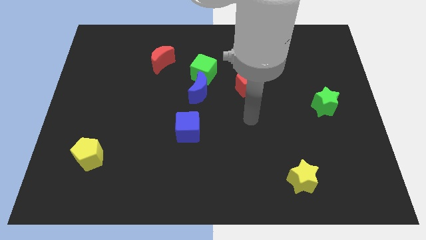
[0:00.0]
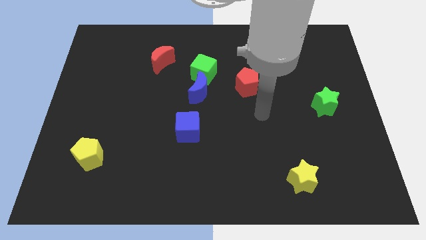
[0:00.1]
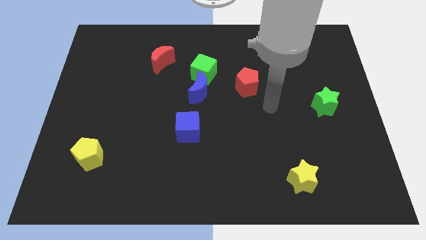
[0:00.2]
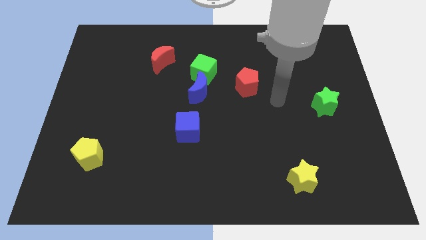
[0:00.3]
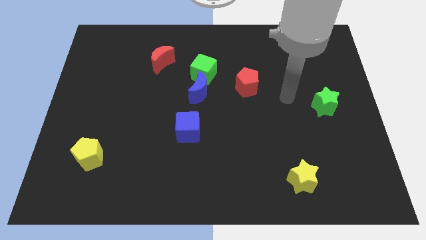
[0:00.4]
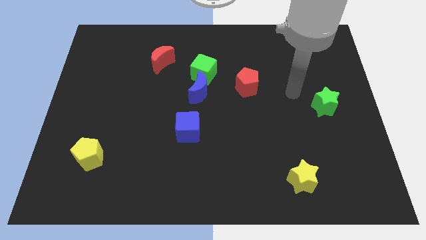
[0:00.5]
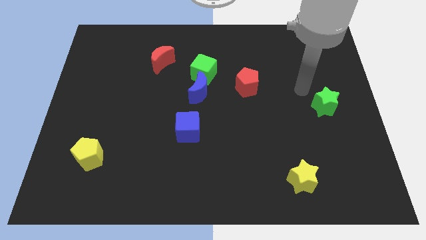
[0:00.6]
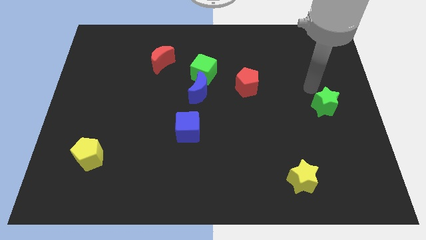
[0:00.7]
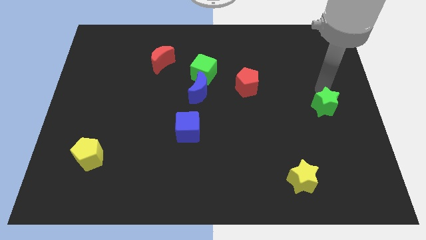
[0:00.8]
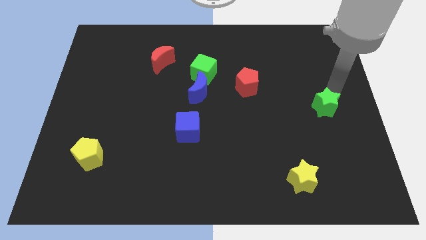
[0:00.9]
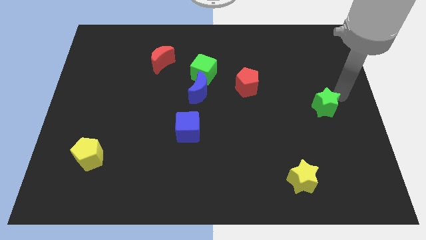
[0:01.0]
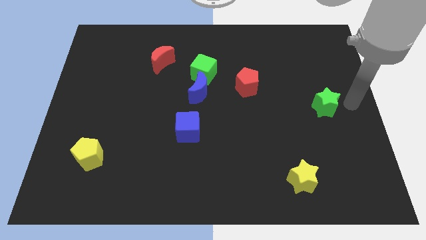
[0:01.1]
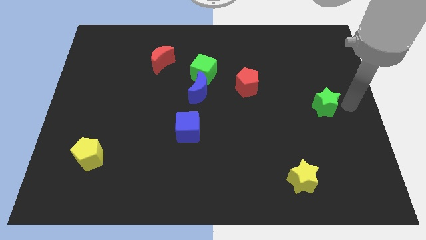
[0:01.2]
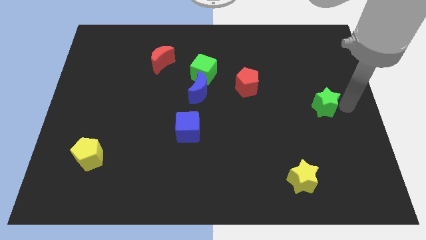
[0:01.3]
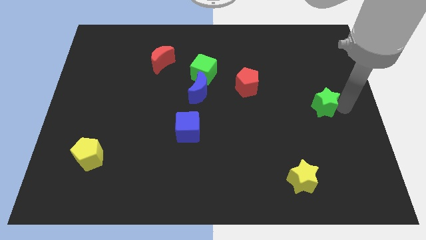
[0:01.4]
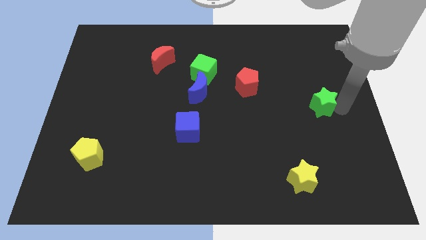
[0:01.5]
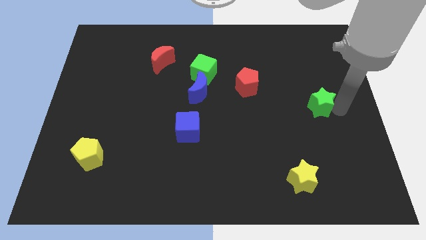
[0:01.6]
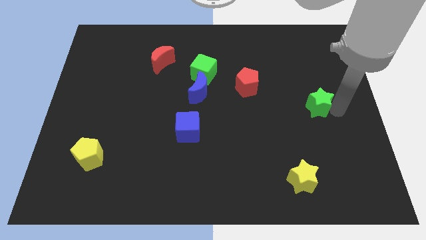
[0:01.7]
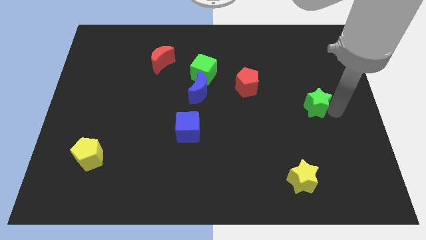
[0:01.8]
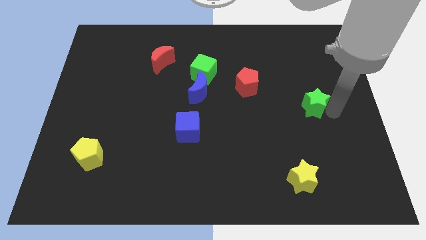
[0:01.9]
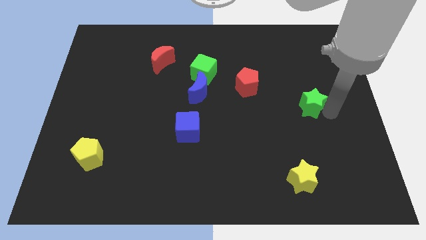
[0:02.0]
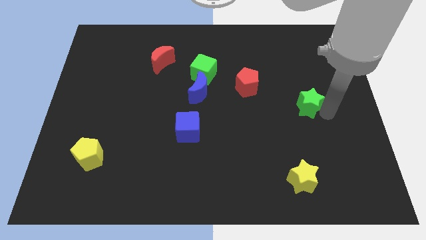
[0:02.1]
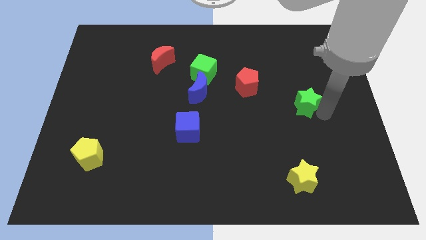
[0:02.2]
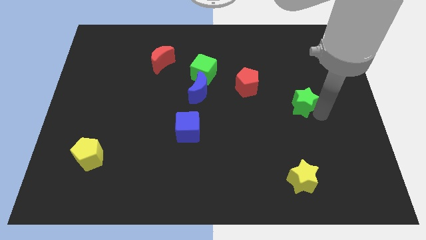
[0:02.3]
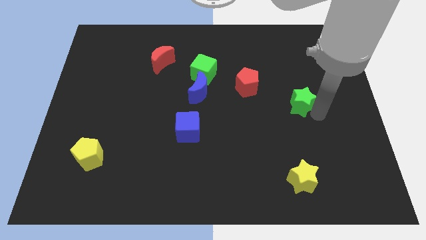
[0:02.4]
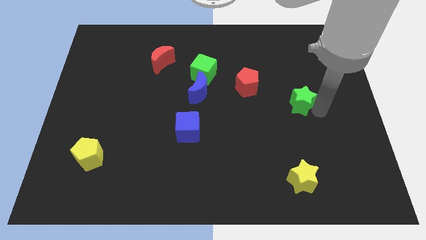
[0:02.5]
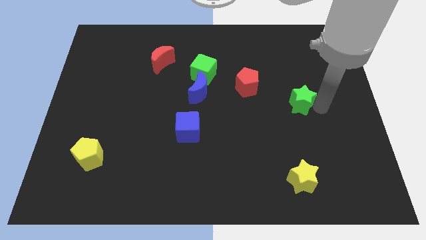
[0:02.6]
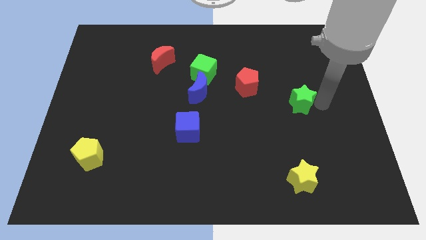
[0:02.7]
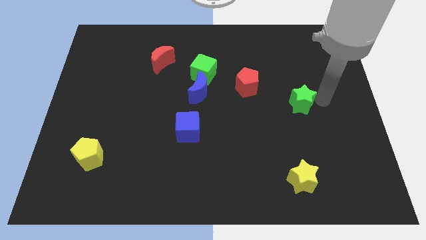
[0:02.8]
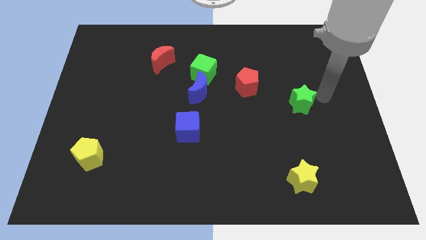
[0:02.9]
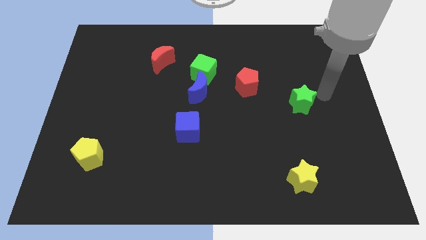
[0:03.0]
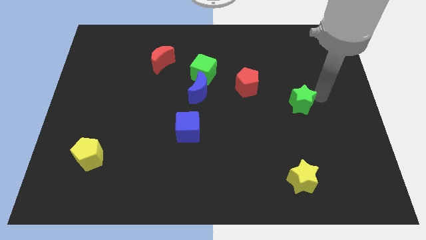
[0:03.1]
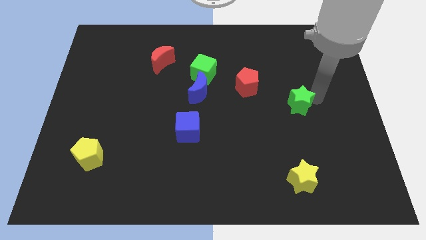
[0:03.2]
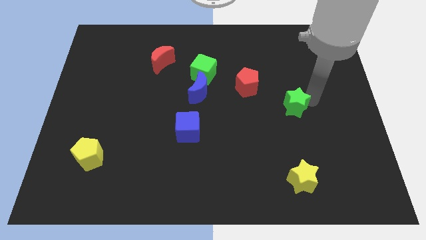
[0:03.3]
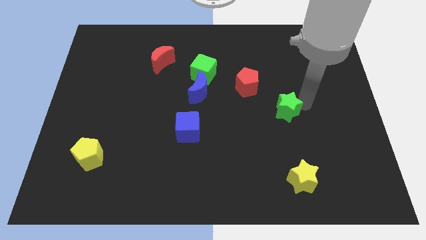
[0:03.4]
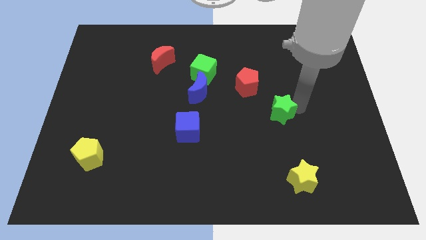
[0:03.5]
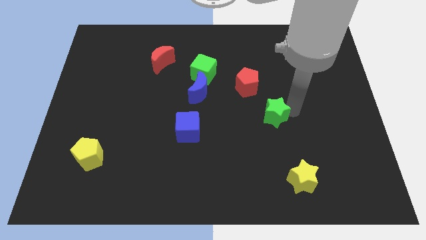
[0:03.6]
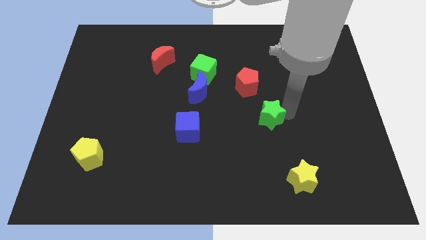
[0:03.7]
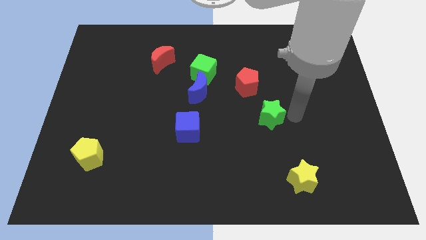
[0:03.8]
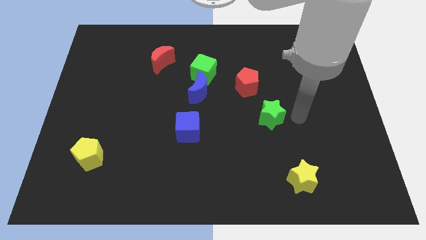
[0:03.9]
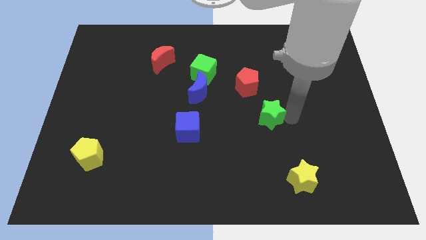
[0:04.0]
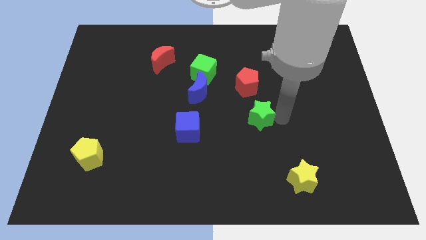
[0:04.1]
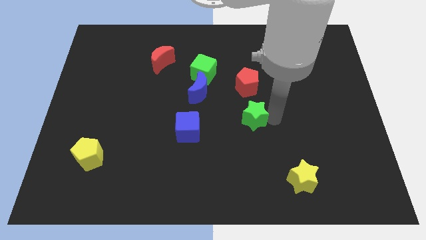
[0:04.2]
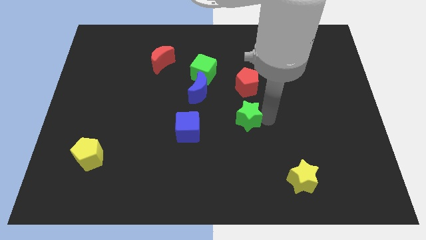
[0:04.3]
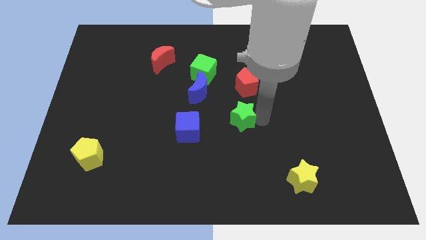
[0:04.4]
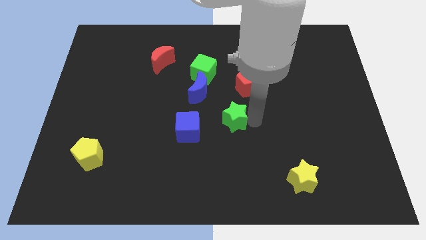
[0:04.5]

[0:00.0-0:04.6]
push the green star to the left

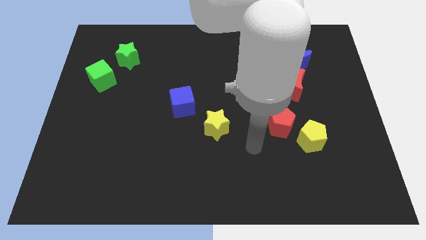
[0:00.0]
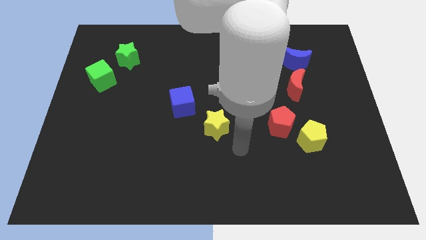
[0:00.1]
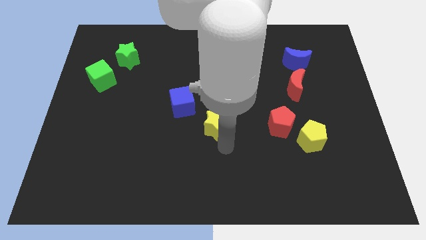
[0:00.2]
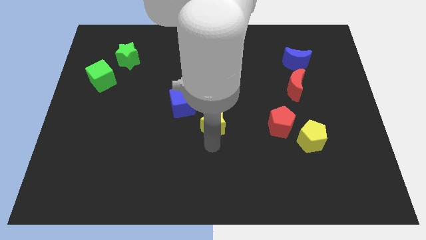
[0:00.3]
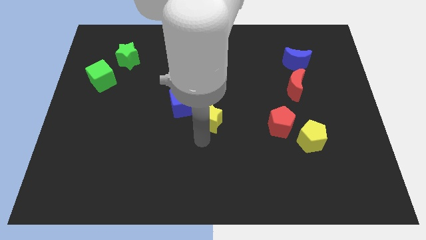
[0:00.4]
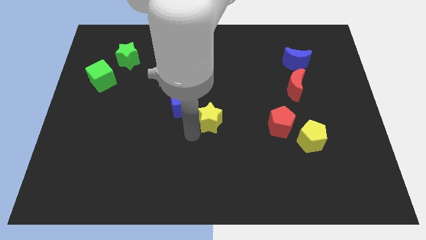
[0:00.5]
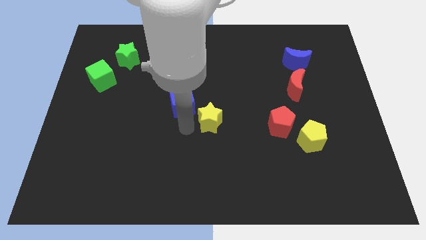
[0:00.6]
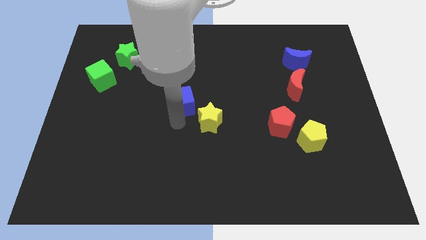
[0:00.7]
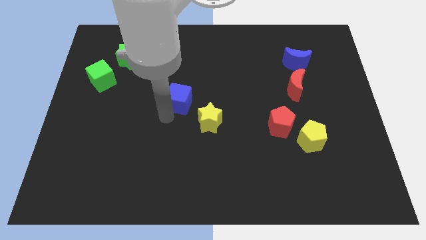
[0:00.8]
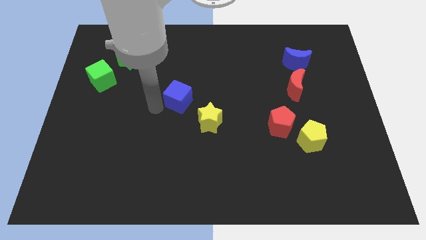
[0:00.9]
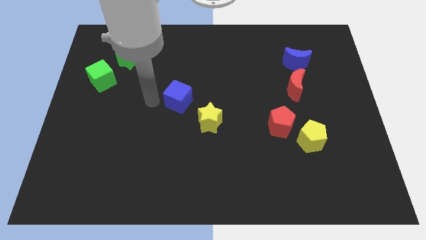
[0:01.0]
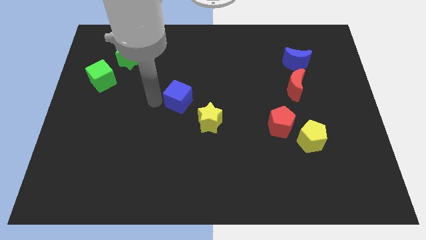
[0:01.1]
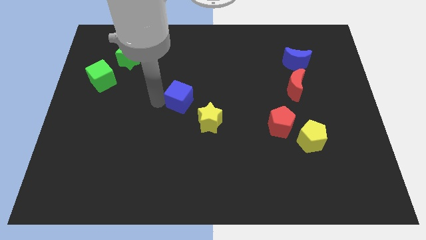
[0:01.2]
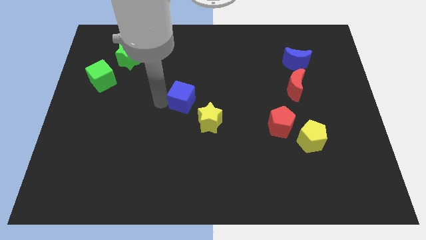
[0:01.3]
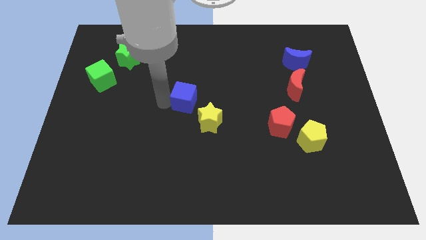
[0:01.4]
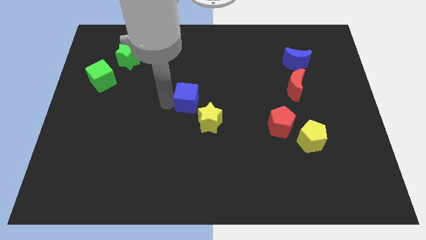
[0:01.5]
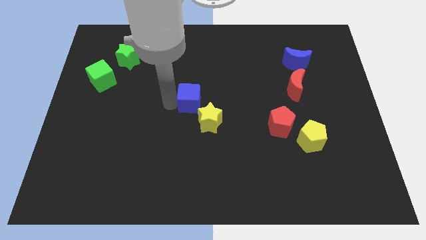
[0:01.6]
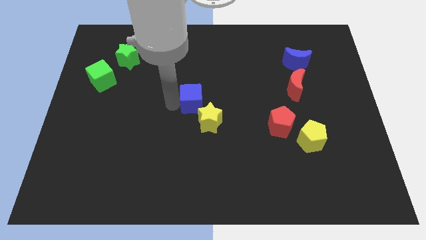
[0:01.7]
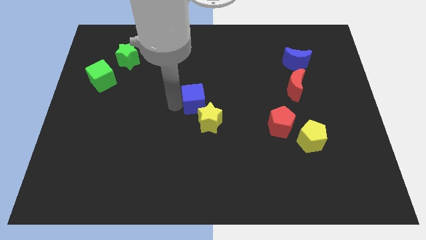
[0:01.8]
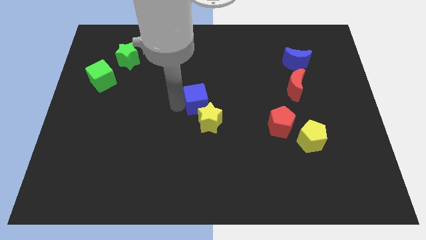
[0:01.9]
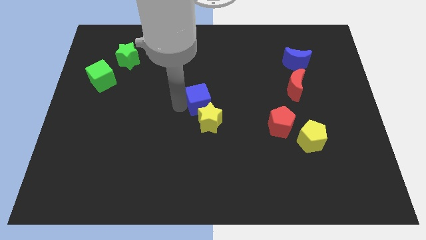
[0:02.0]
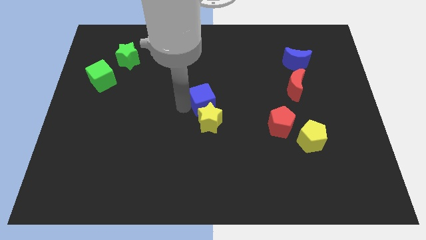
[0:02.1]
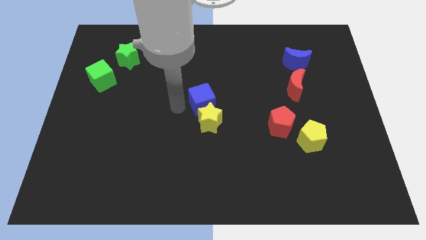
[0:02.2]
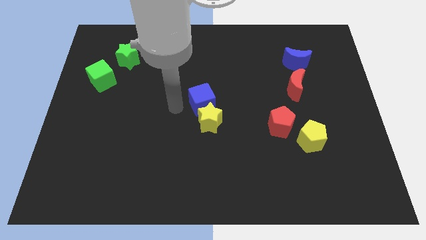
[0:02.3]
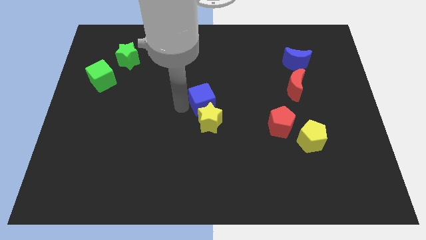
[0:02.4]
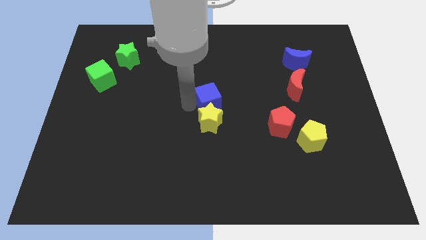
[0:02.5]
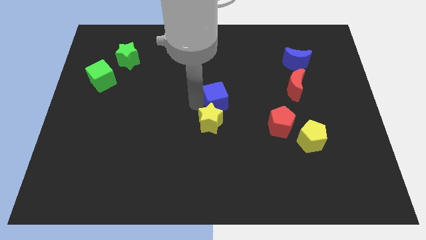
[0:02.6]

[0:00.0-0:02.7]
slightly move the blue cube to the right

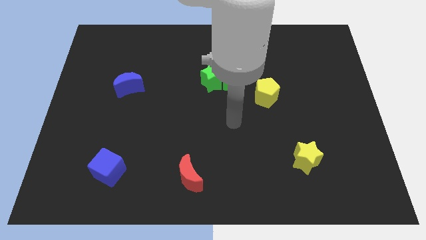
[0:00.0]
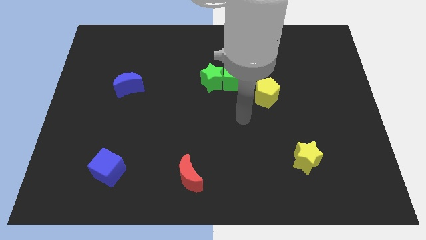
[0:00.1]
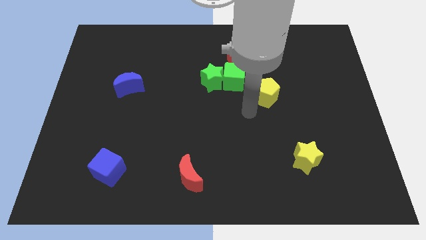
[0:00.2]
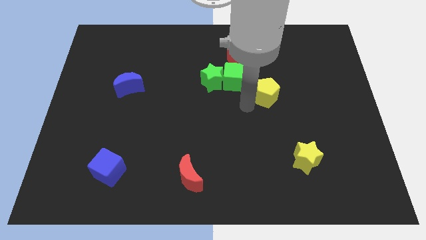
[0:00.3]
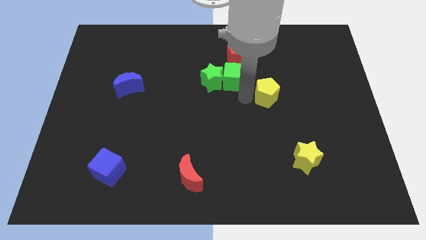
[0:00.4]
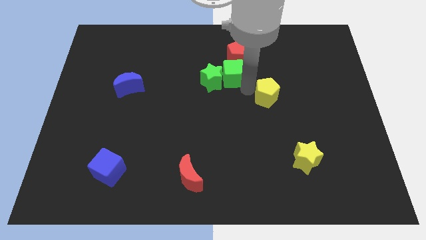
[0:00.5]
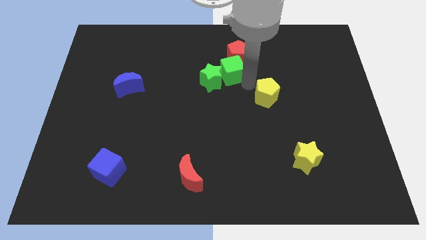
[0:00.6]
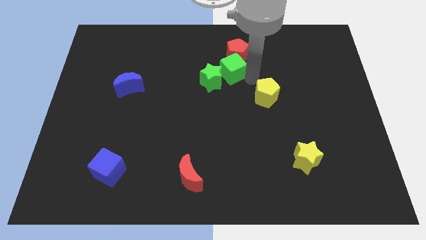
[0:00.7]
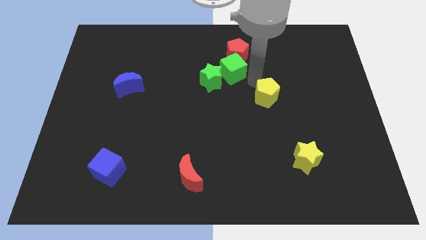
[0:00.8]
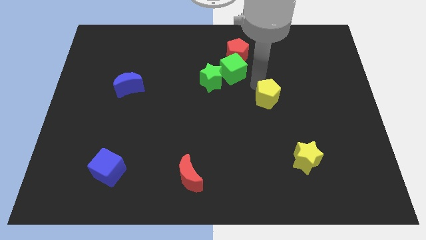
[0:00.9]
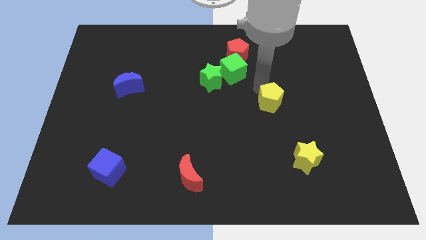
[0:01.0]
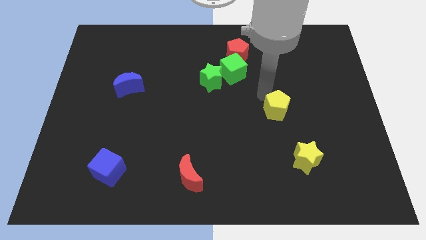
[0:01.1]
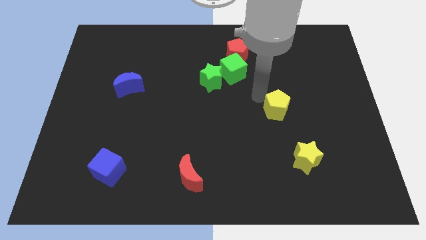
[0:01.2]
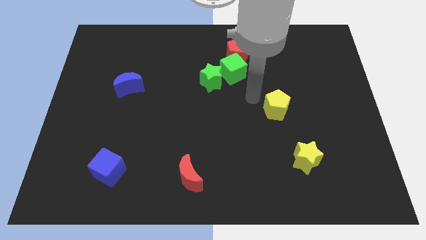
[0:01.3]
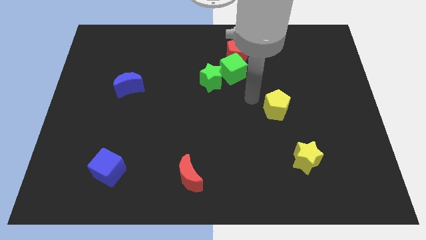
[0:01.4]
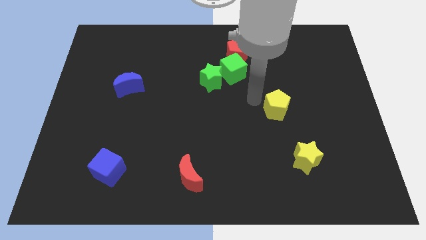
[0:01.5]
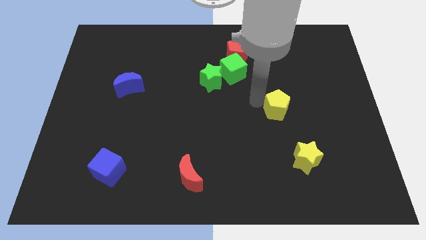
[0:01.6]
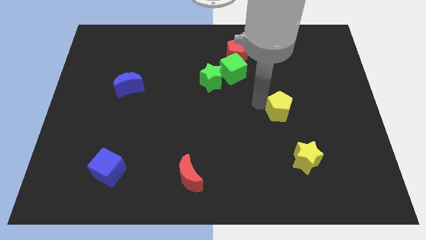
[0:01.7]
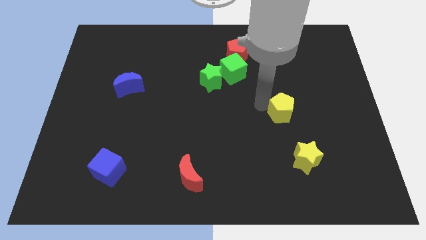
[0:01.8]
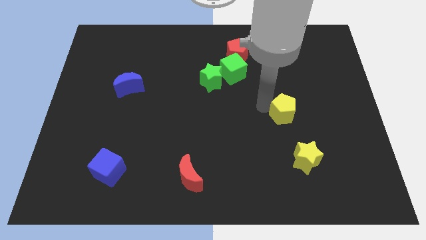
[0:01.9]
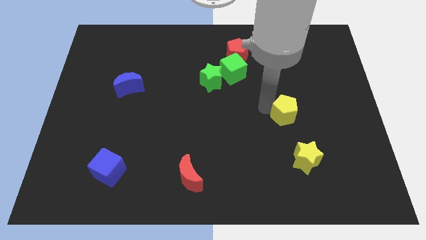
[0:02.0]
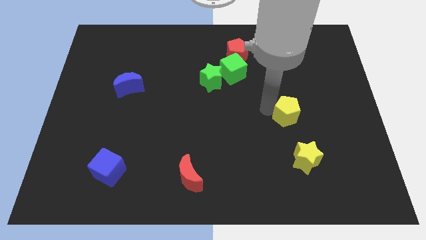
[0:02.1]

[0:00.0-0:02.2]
push the yellow pentagon a little down and to the right diagonally
